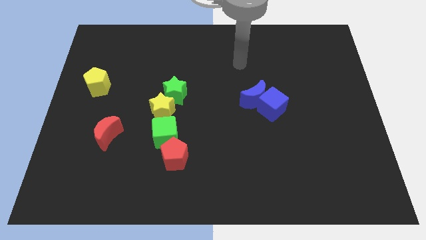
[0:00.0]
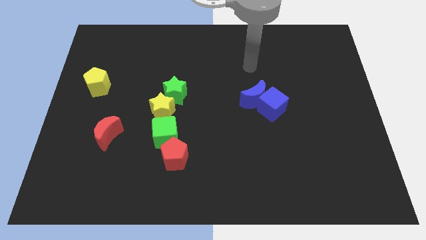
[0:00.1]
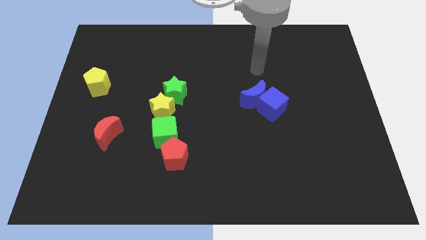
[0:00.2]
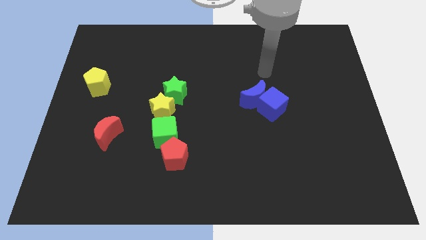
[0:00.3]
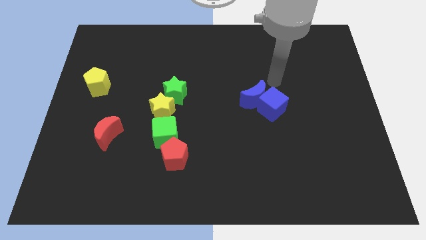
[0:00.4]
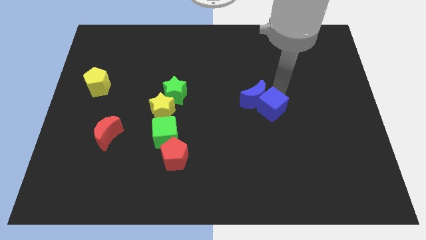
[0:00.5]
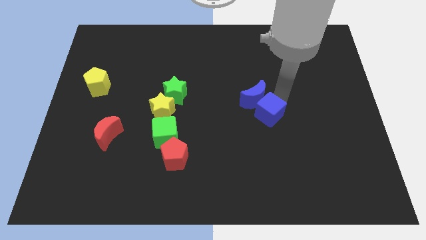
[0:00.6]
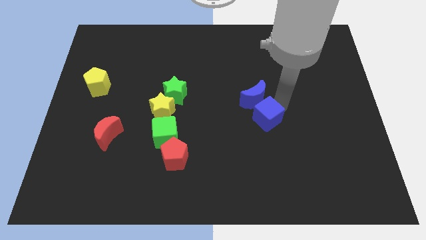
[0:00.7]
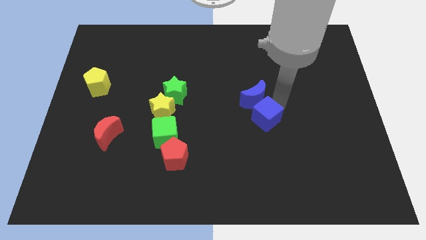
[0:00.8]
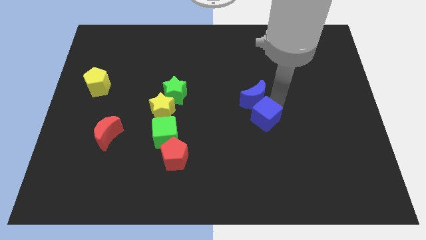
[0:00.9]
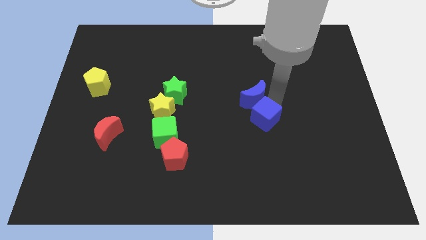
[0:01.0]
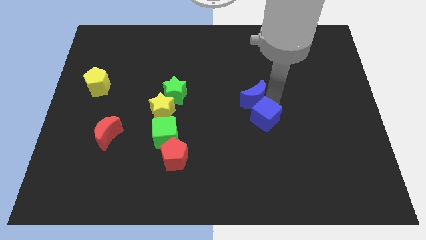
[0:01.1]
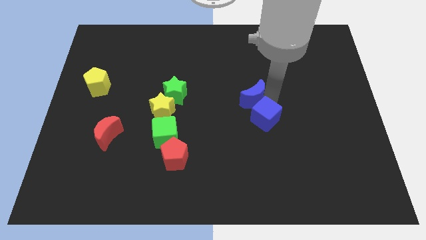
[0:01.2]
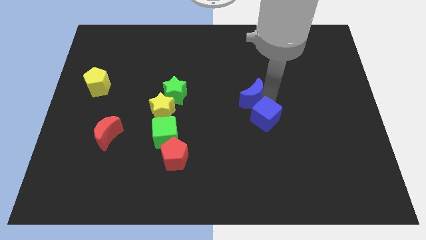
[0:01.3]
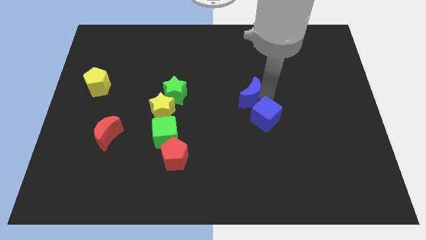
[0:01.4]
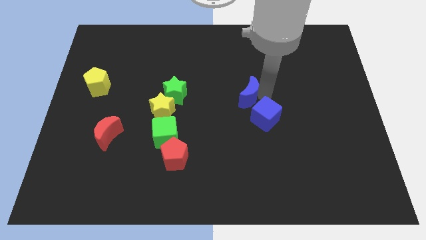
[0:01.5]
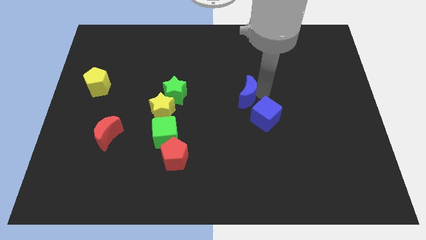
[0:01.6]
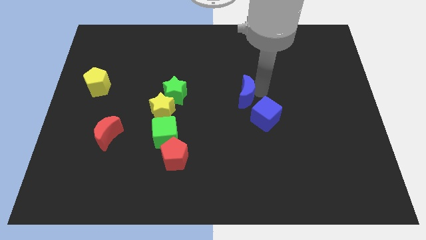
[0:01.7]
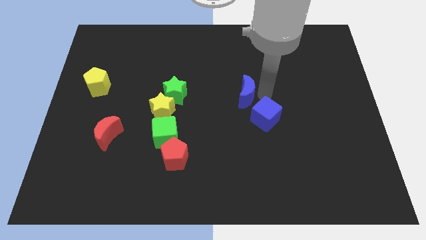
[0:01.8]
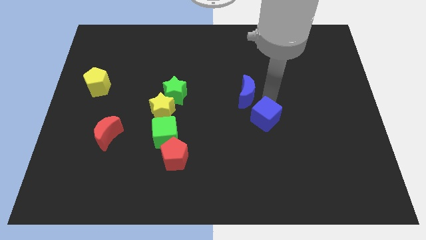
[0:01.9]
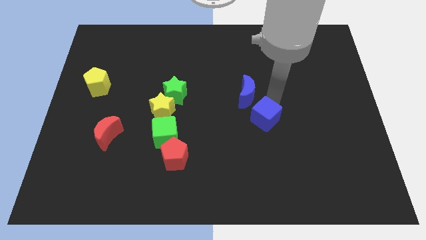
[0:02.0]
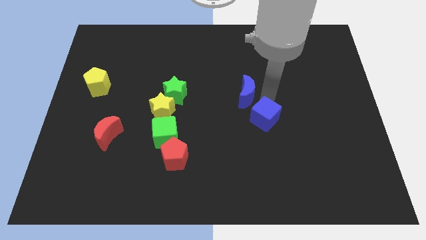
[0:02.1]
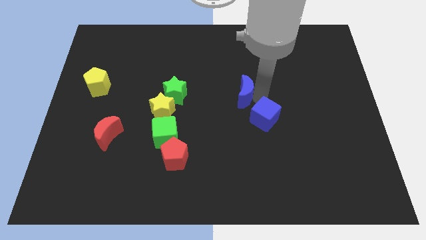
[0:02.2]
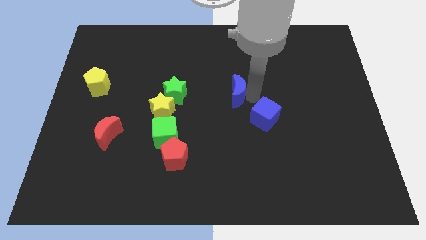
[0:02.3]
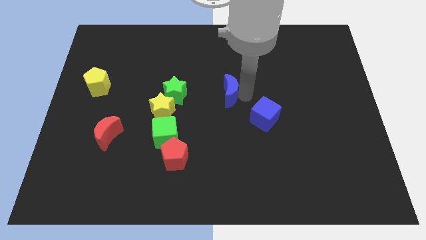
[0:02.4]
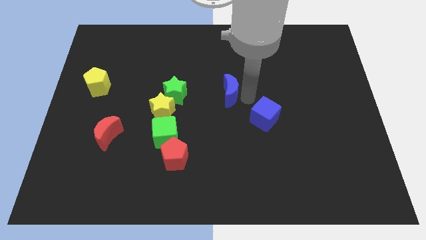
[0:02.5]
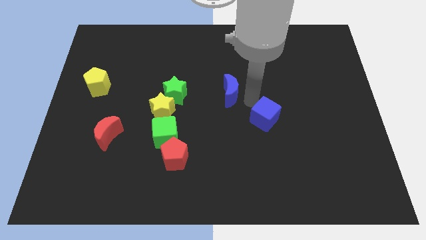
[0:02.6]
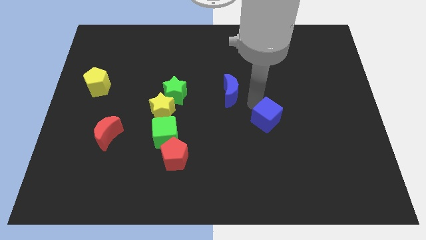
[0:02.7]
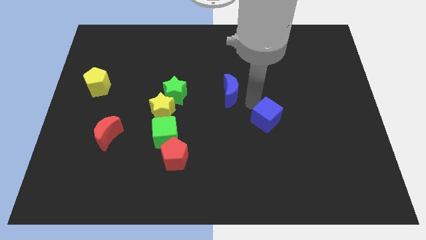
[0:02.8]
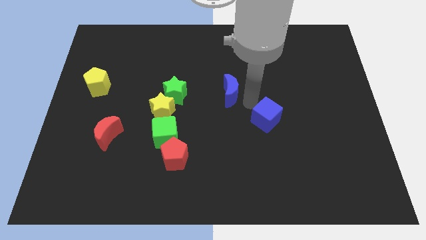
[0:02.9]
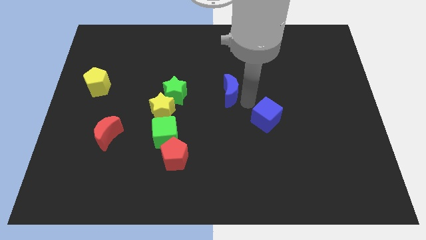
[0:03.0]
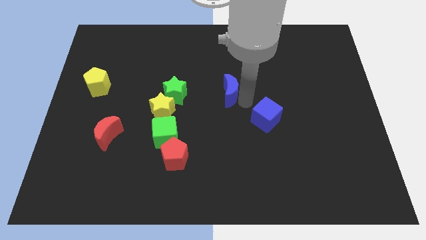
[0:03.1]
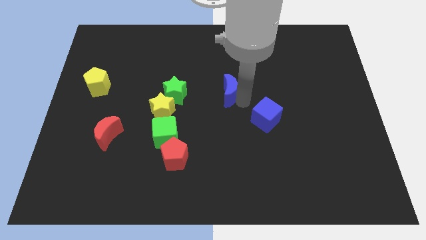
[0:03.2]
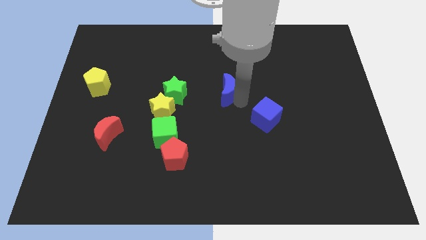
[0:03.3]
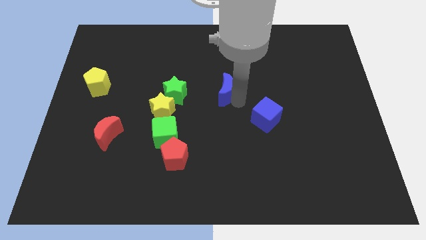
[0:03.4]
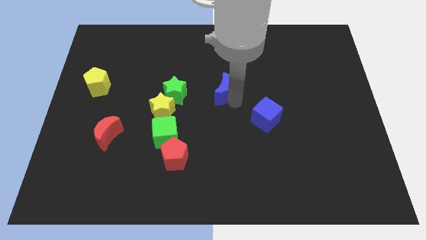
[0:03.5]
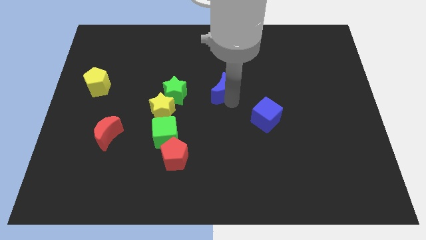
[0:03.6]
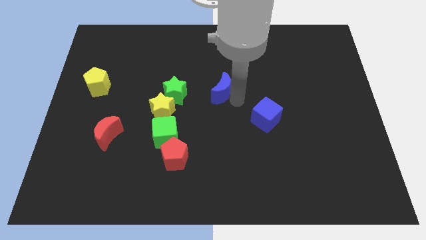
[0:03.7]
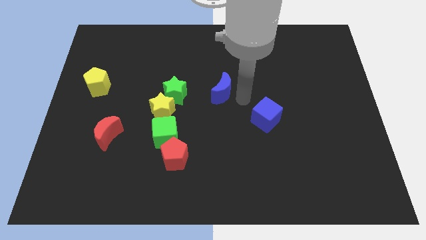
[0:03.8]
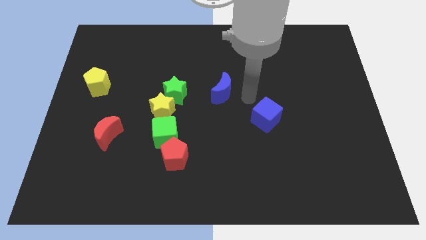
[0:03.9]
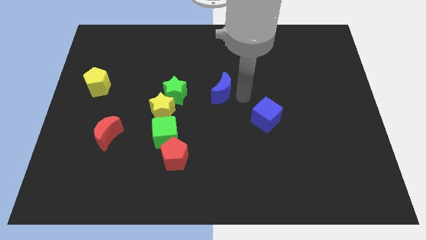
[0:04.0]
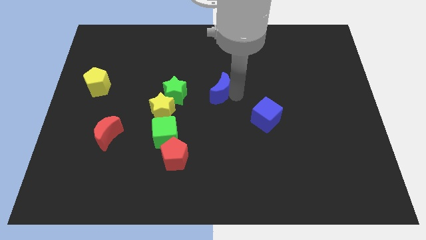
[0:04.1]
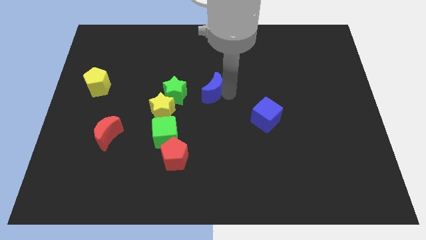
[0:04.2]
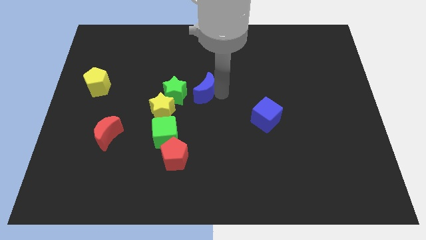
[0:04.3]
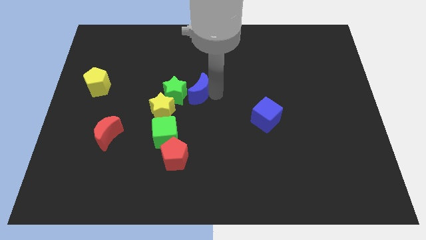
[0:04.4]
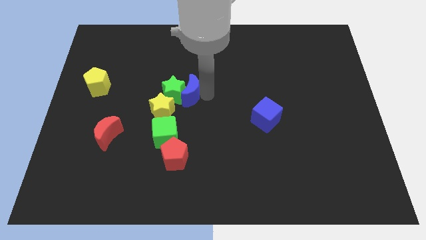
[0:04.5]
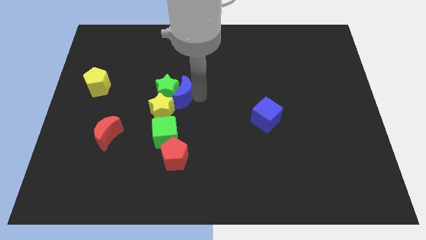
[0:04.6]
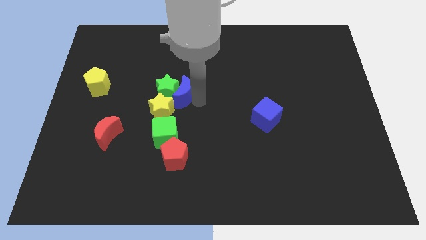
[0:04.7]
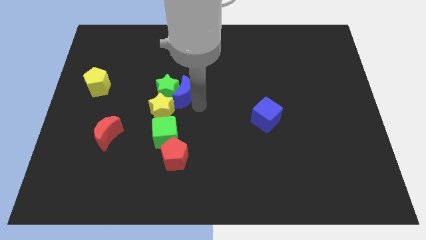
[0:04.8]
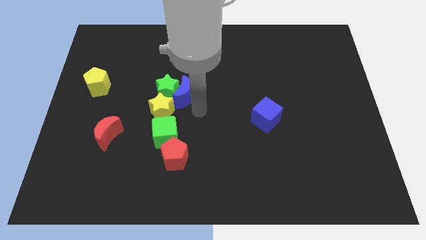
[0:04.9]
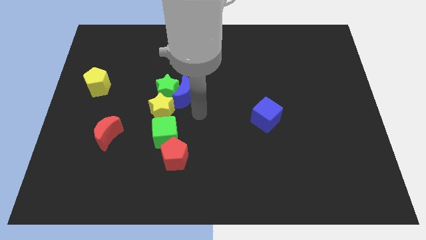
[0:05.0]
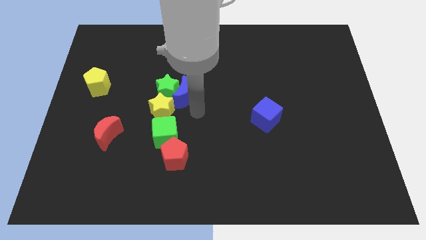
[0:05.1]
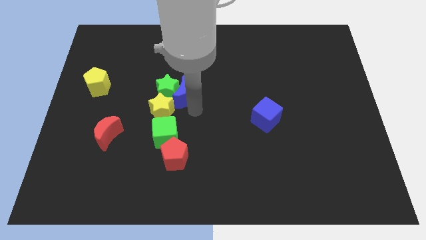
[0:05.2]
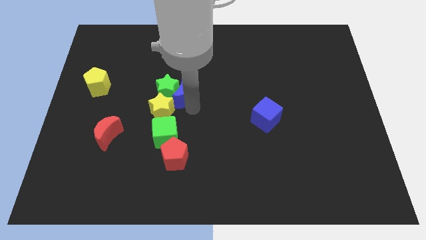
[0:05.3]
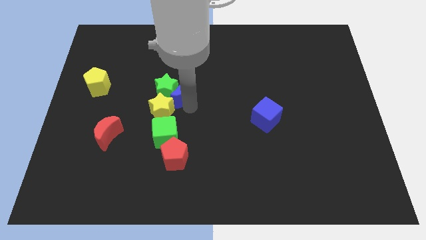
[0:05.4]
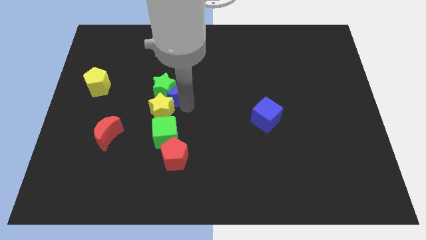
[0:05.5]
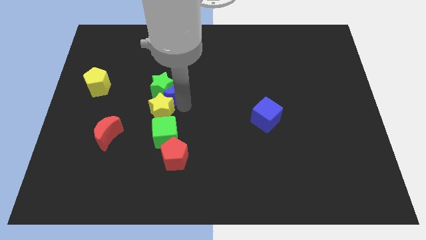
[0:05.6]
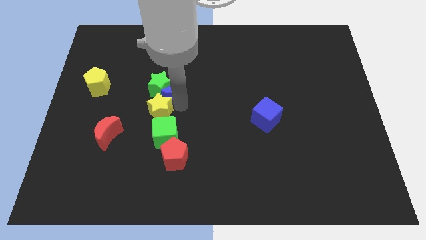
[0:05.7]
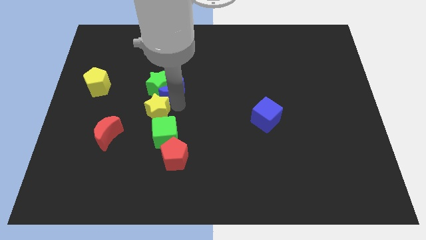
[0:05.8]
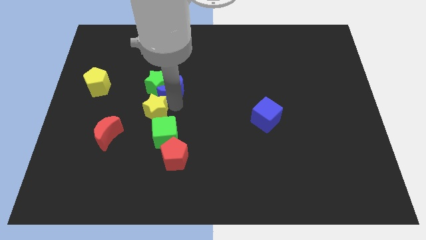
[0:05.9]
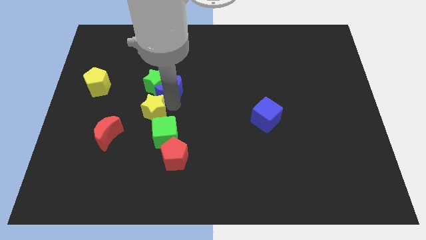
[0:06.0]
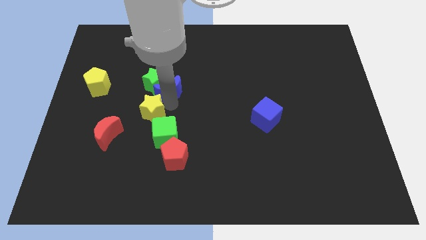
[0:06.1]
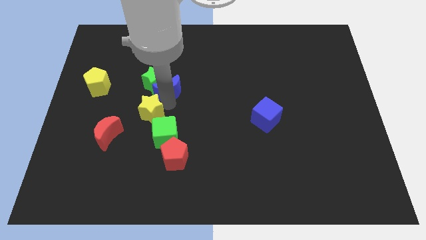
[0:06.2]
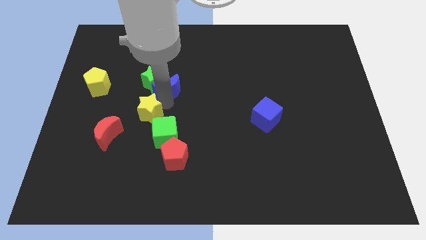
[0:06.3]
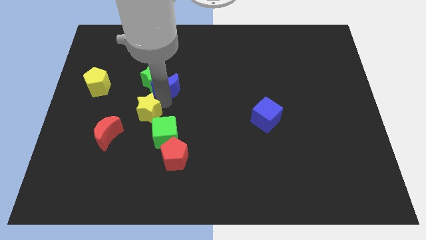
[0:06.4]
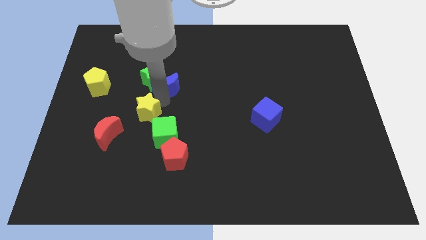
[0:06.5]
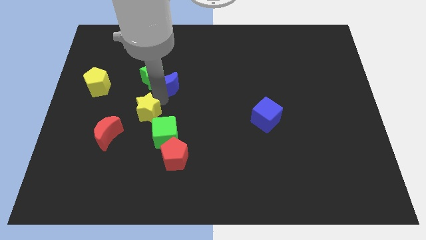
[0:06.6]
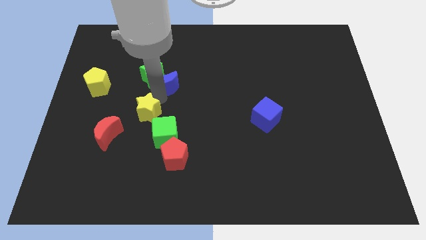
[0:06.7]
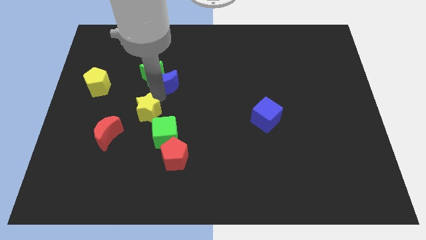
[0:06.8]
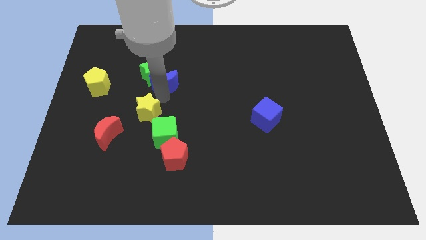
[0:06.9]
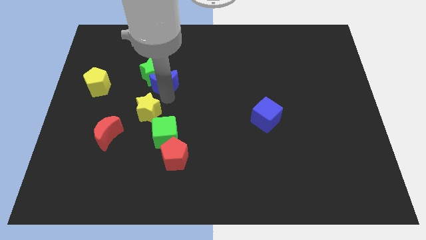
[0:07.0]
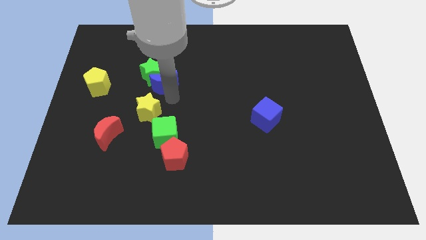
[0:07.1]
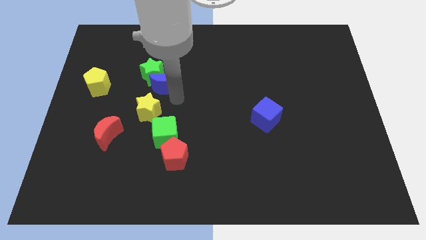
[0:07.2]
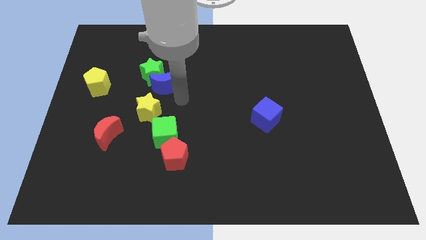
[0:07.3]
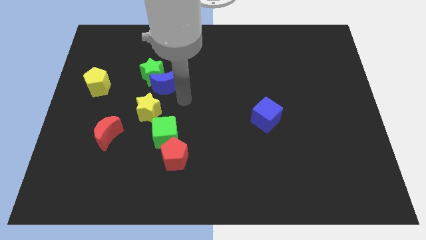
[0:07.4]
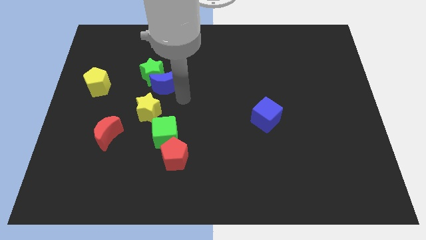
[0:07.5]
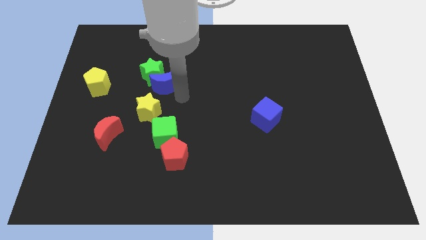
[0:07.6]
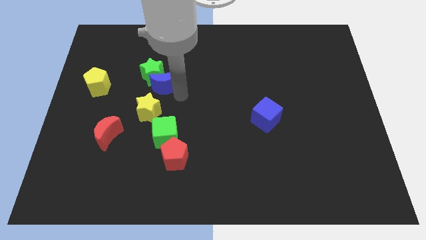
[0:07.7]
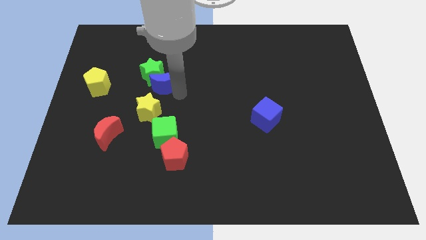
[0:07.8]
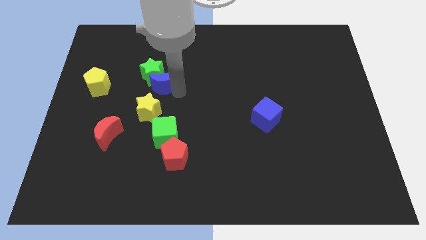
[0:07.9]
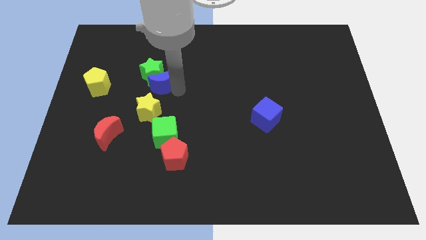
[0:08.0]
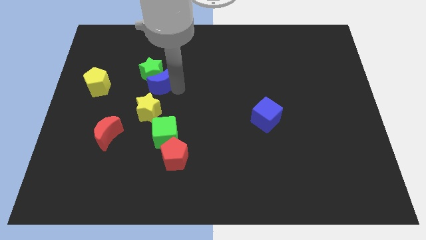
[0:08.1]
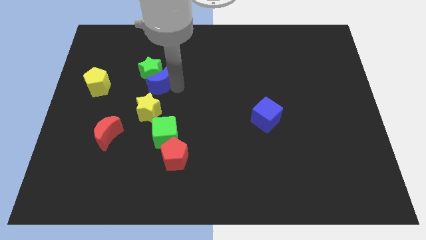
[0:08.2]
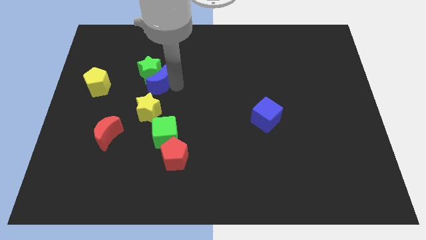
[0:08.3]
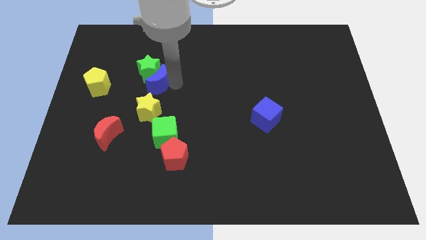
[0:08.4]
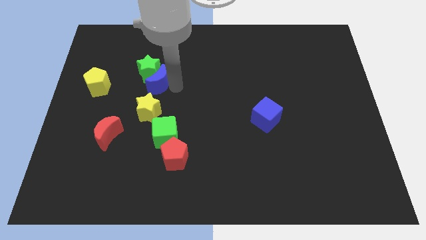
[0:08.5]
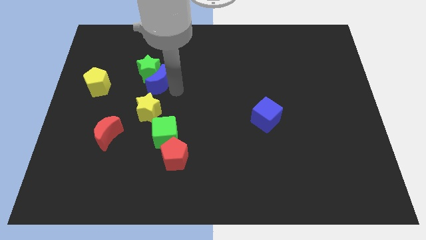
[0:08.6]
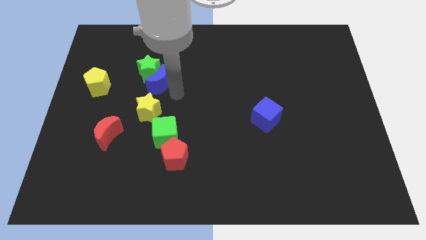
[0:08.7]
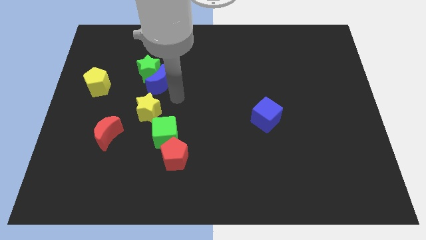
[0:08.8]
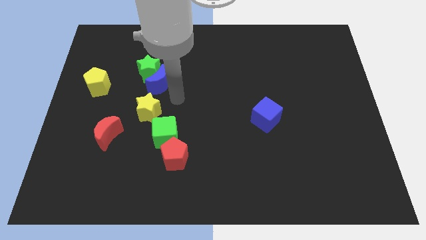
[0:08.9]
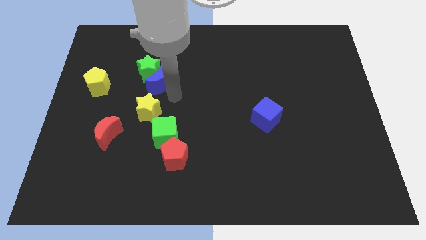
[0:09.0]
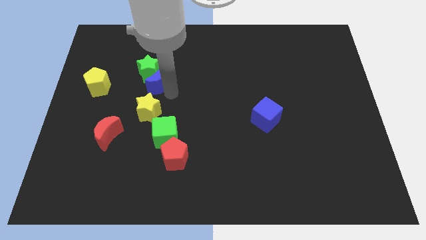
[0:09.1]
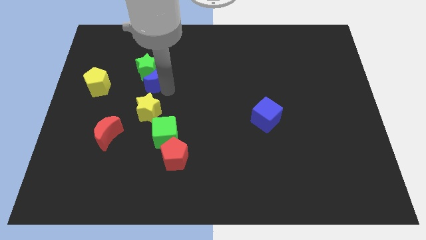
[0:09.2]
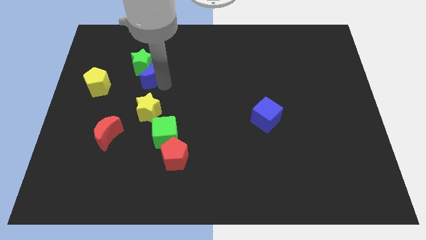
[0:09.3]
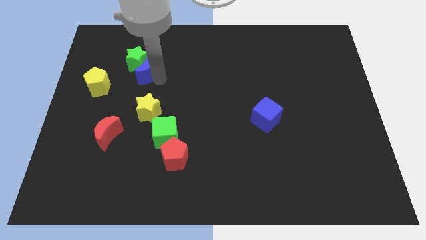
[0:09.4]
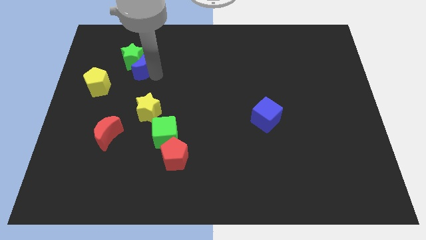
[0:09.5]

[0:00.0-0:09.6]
put the blue moon to the top right of the yellow pentagon
